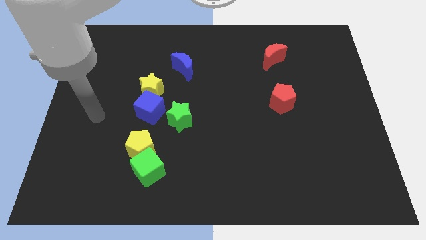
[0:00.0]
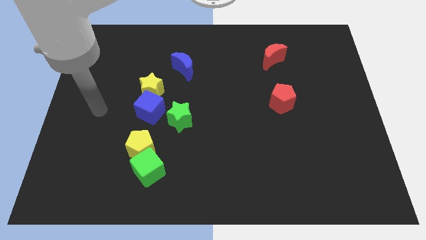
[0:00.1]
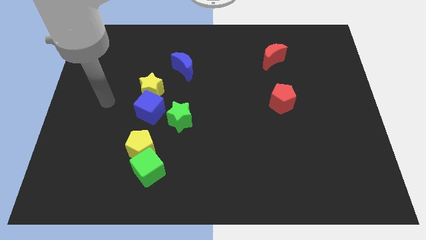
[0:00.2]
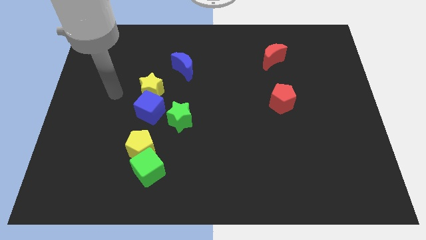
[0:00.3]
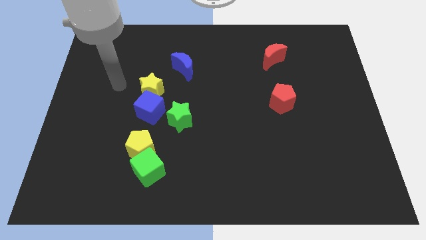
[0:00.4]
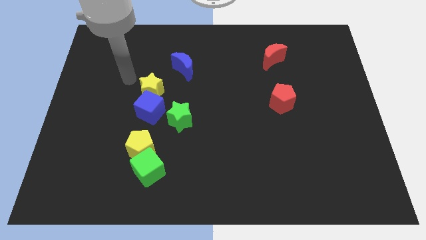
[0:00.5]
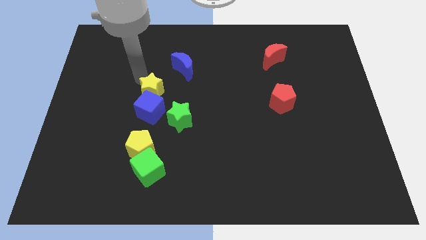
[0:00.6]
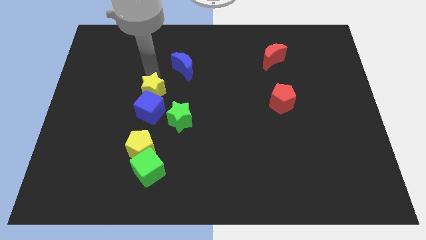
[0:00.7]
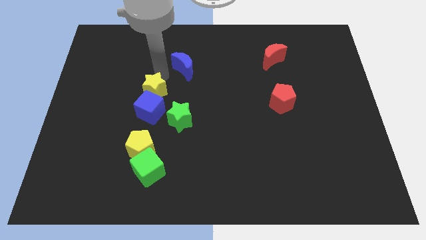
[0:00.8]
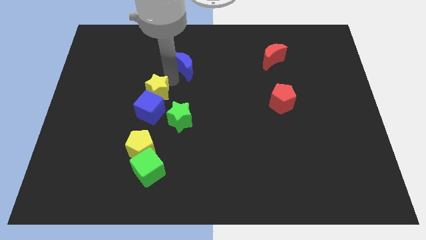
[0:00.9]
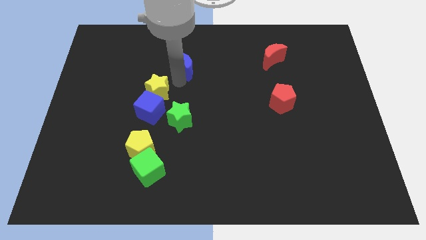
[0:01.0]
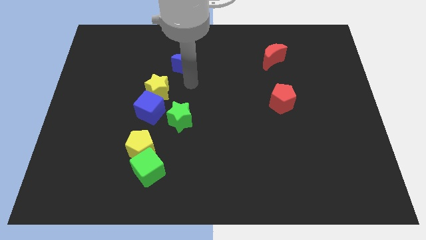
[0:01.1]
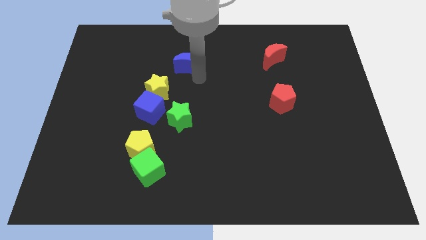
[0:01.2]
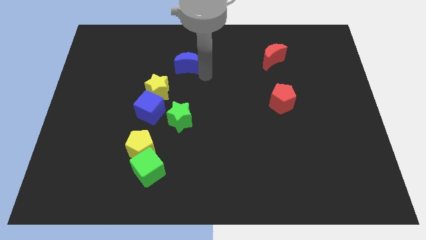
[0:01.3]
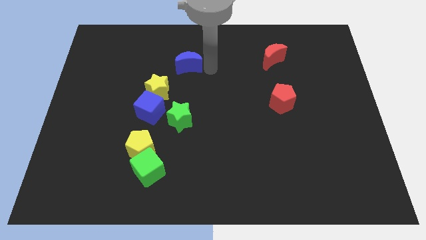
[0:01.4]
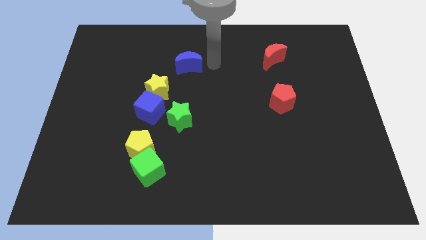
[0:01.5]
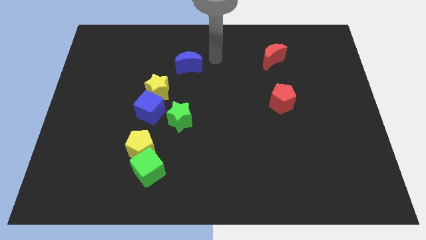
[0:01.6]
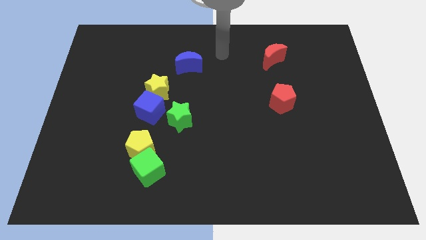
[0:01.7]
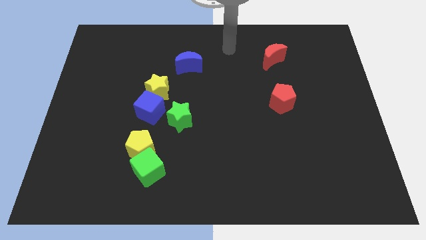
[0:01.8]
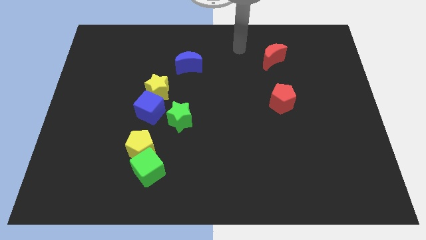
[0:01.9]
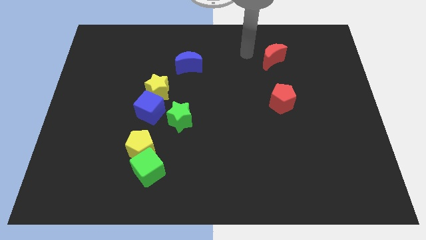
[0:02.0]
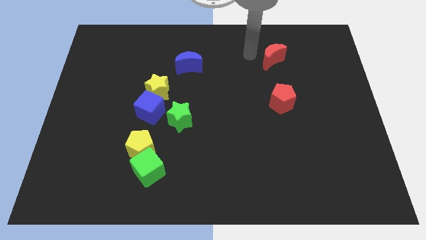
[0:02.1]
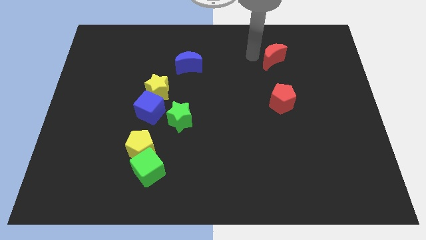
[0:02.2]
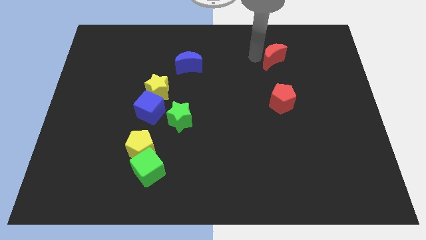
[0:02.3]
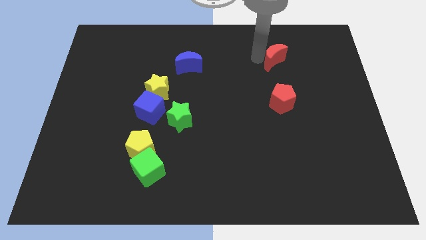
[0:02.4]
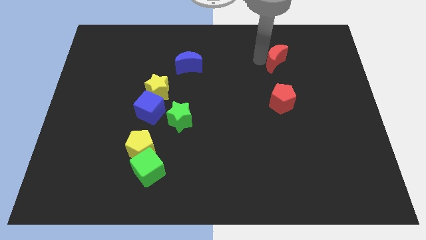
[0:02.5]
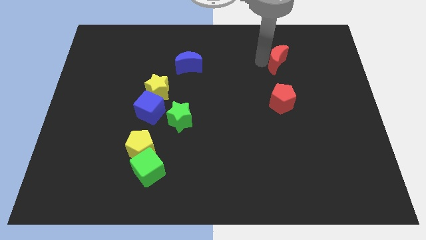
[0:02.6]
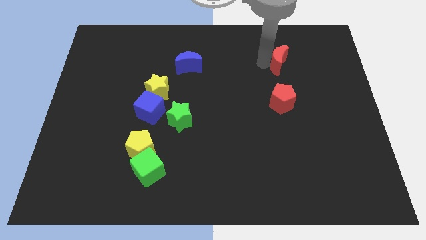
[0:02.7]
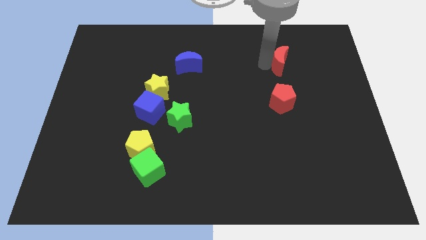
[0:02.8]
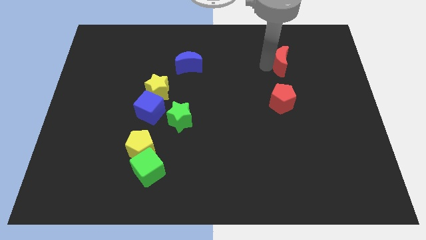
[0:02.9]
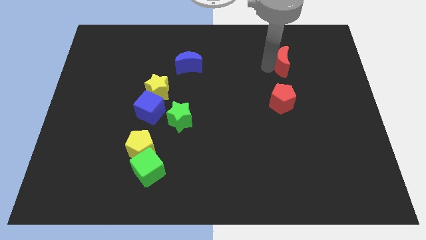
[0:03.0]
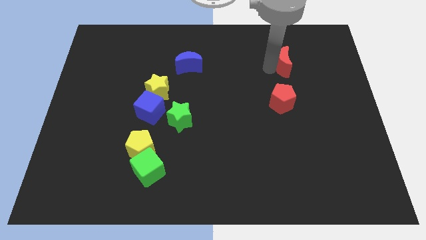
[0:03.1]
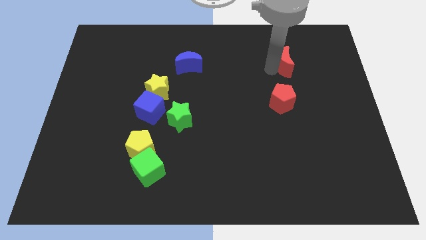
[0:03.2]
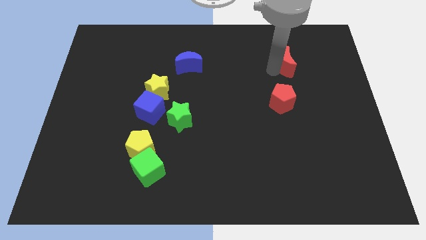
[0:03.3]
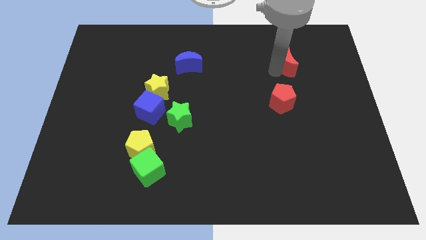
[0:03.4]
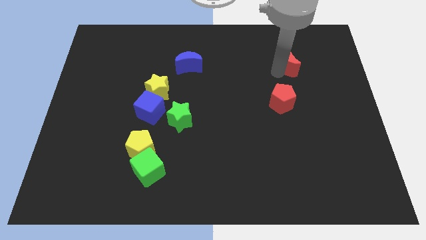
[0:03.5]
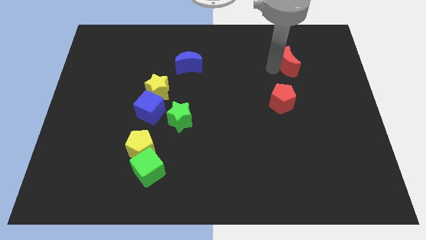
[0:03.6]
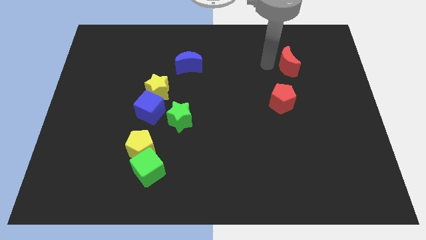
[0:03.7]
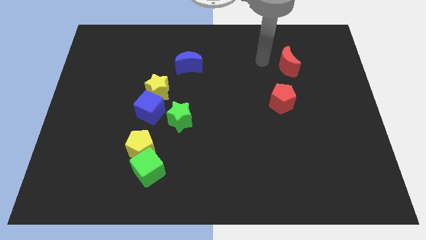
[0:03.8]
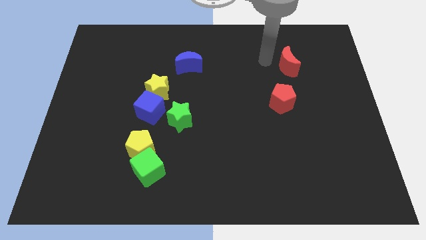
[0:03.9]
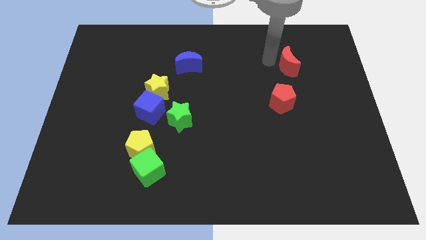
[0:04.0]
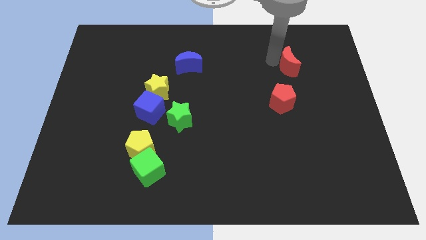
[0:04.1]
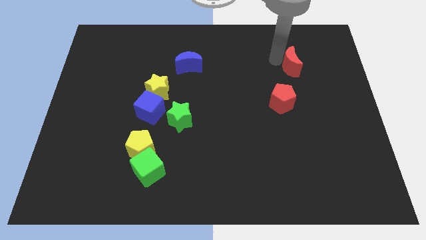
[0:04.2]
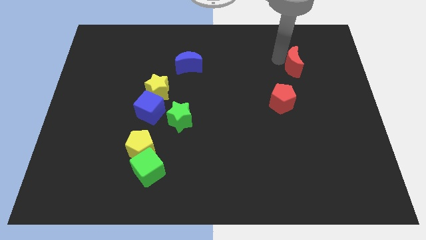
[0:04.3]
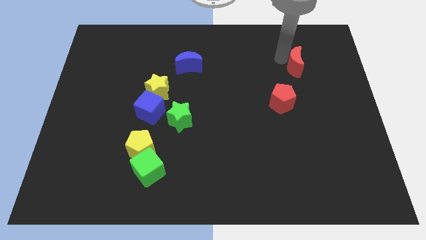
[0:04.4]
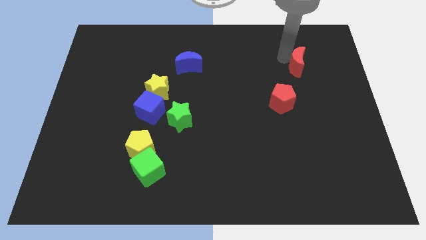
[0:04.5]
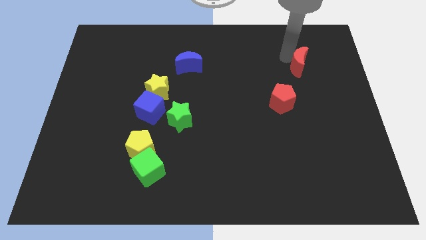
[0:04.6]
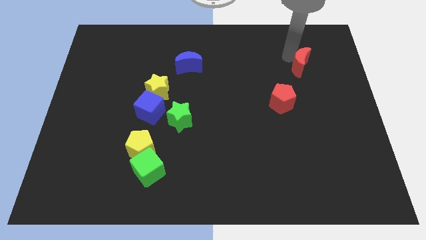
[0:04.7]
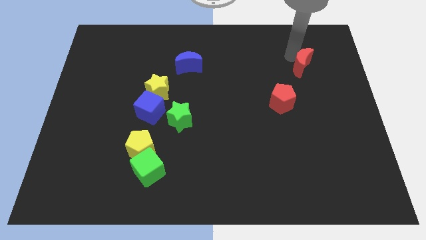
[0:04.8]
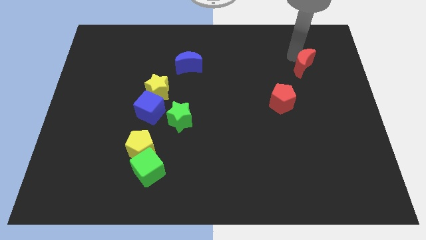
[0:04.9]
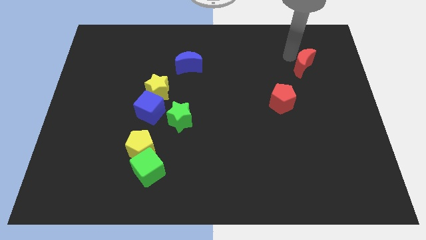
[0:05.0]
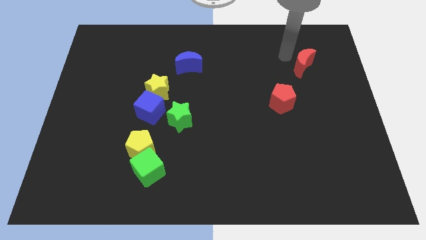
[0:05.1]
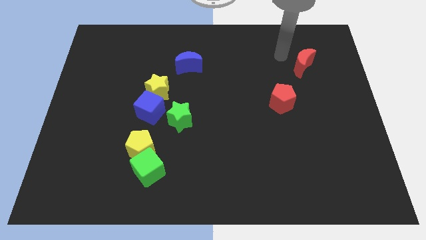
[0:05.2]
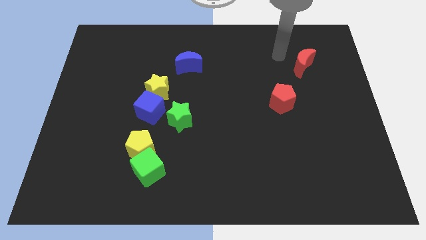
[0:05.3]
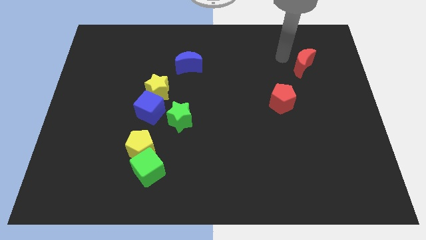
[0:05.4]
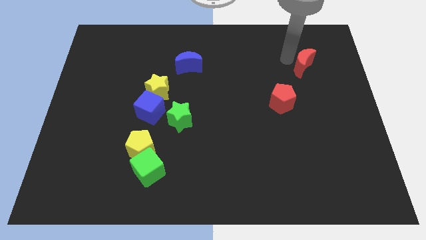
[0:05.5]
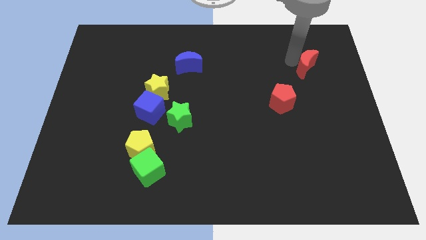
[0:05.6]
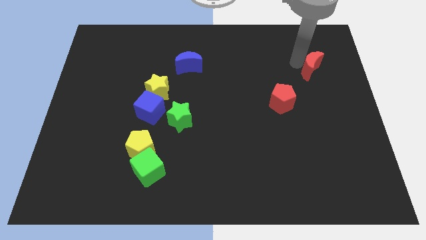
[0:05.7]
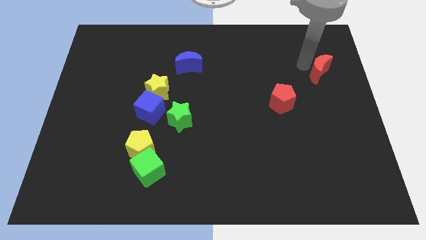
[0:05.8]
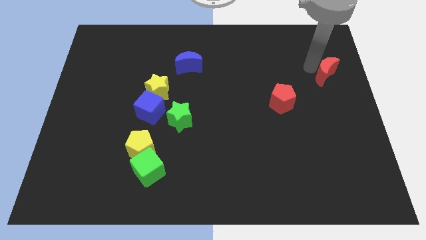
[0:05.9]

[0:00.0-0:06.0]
move the red moon to the center right

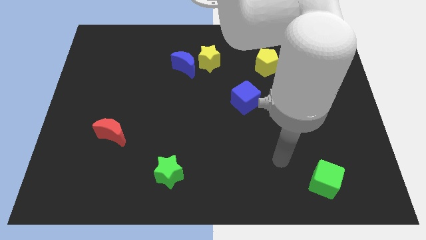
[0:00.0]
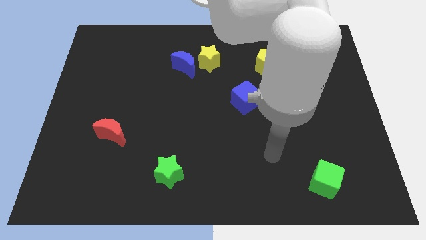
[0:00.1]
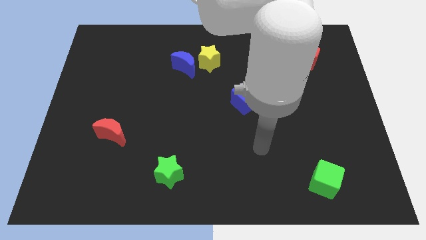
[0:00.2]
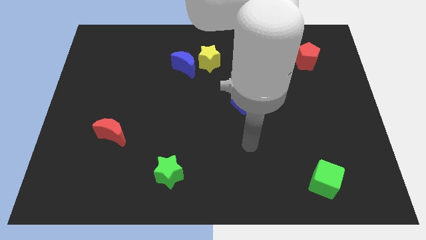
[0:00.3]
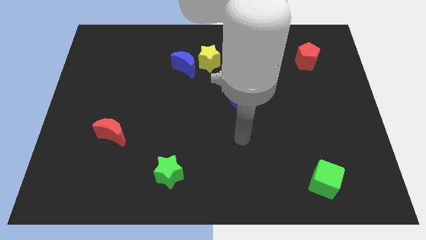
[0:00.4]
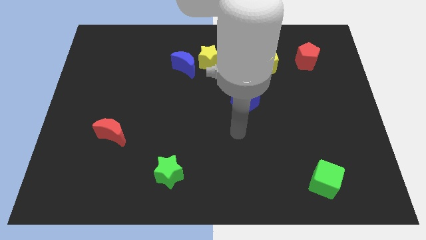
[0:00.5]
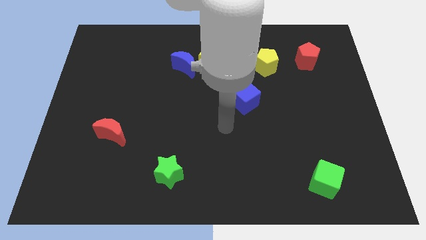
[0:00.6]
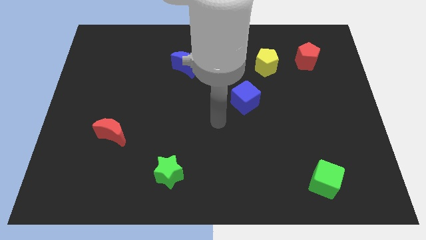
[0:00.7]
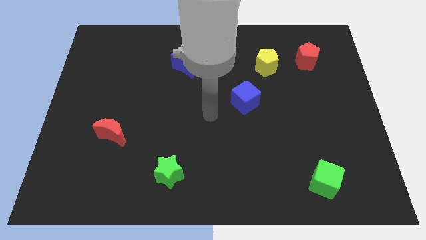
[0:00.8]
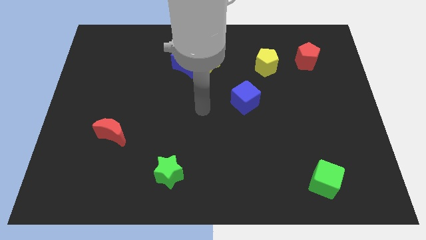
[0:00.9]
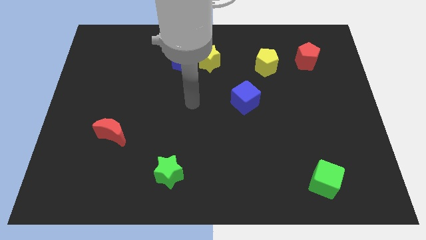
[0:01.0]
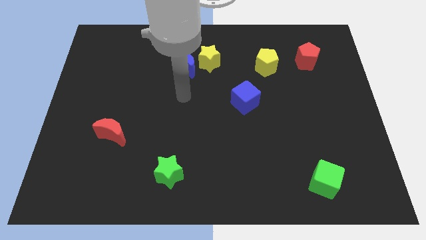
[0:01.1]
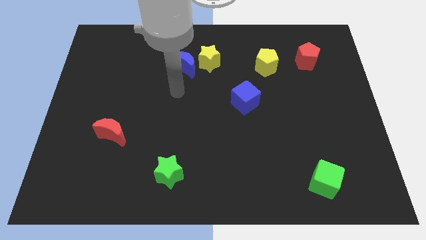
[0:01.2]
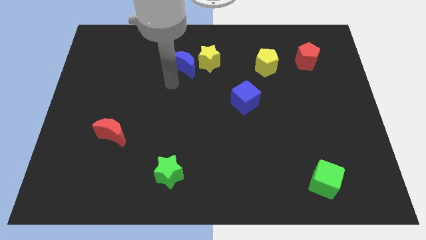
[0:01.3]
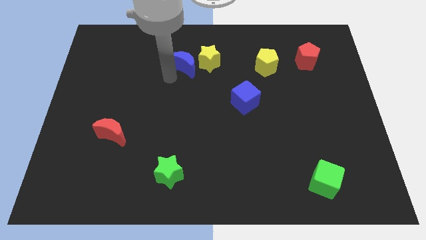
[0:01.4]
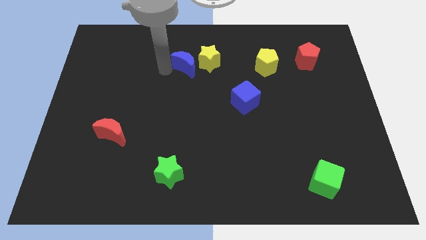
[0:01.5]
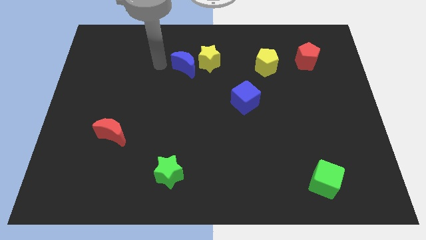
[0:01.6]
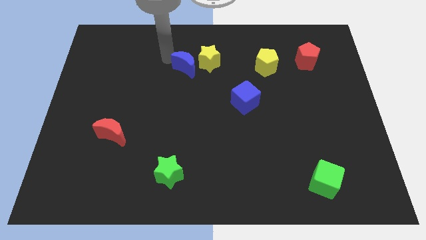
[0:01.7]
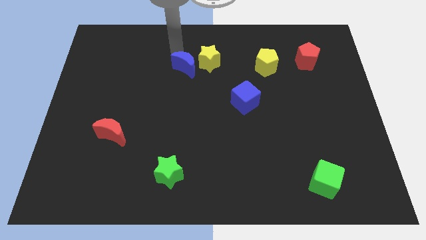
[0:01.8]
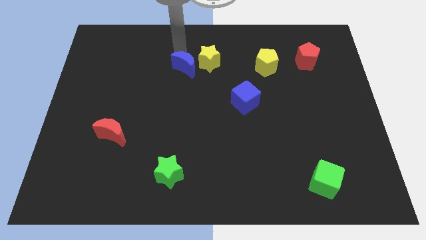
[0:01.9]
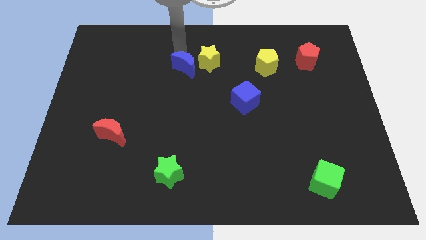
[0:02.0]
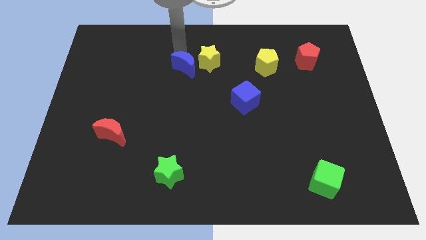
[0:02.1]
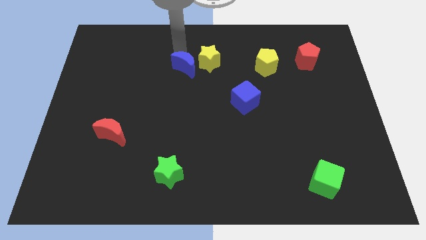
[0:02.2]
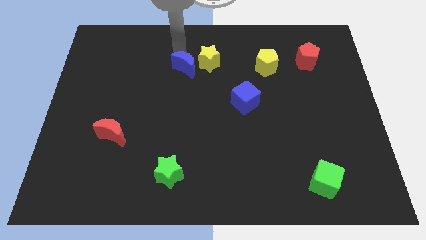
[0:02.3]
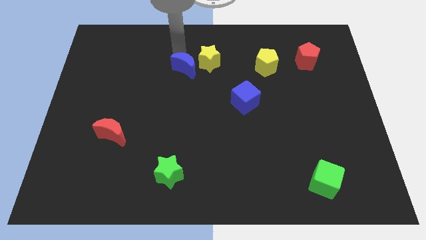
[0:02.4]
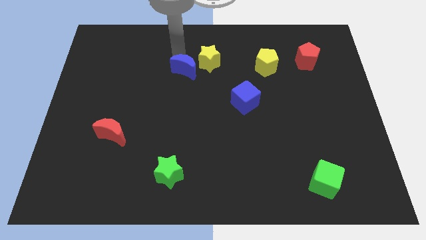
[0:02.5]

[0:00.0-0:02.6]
move the blue moon to the center
